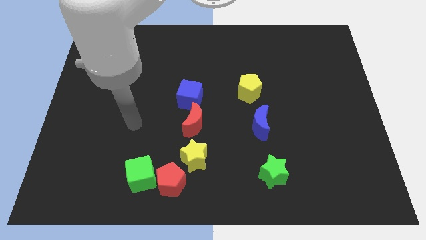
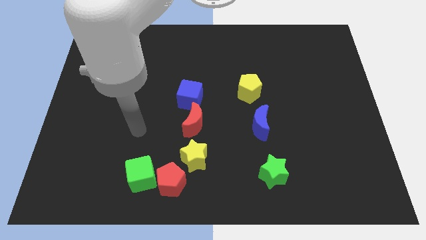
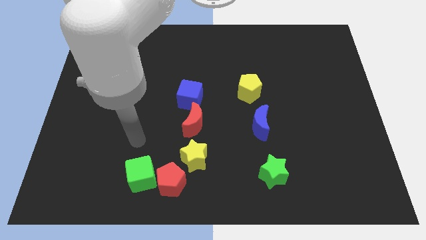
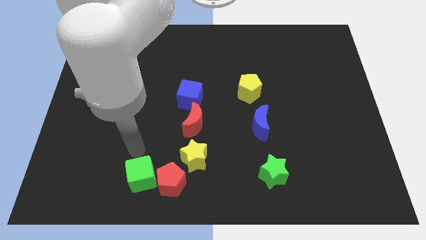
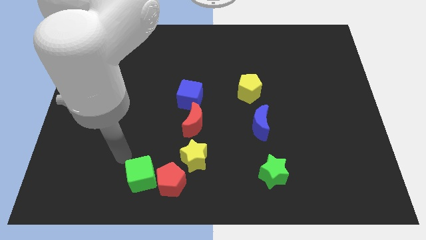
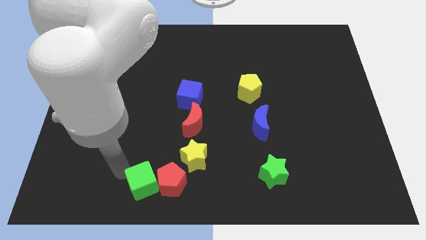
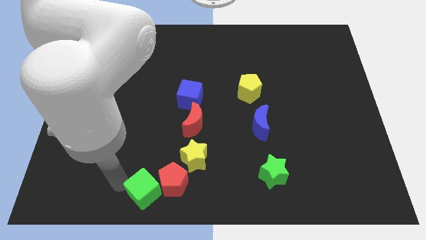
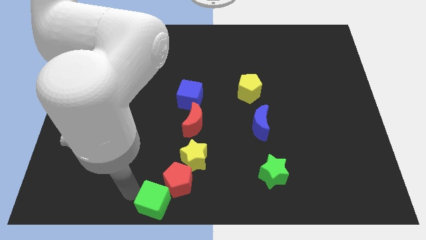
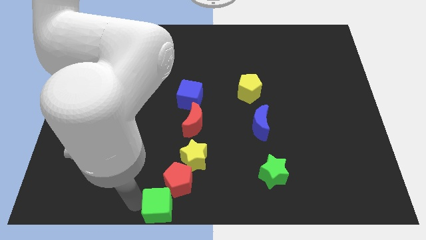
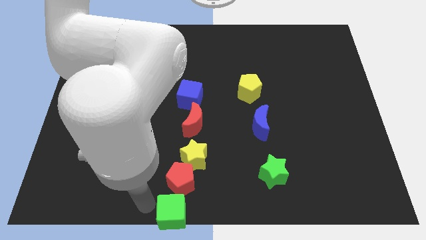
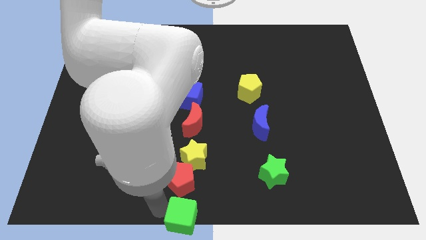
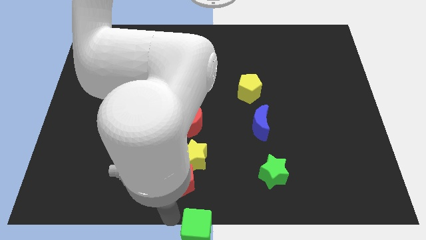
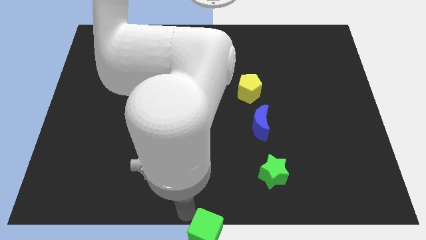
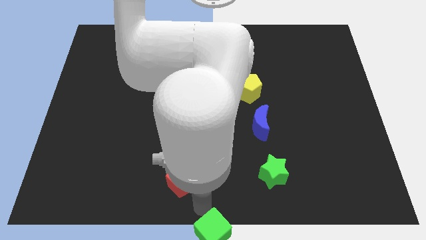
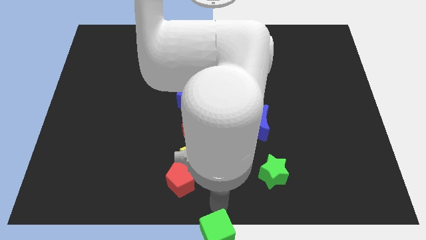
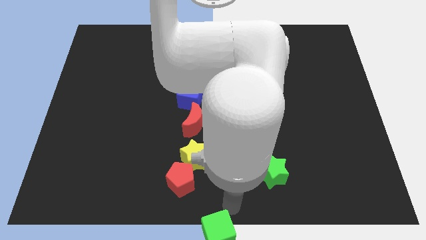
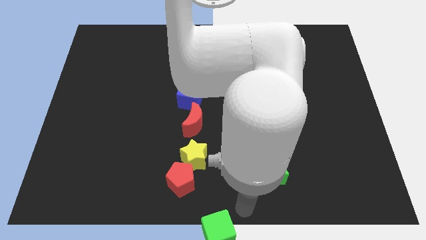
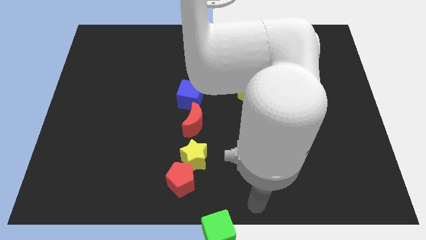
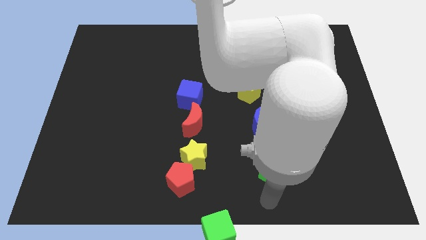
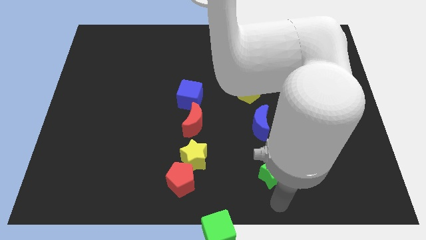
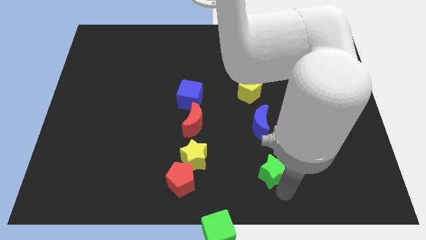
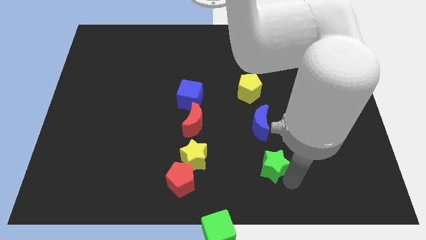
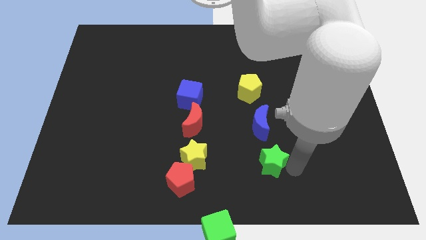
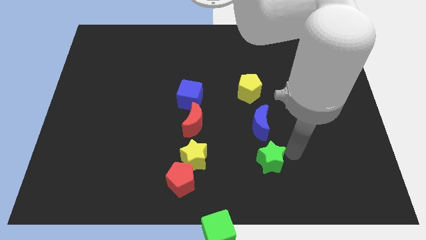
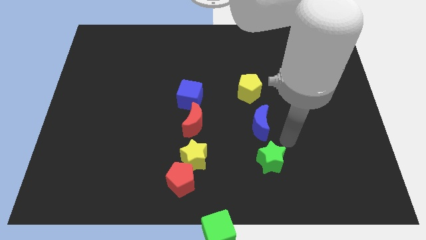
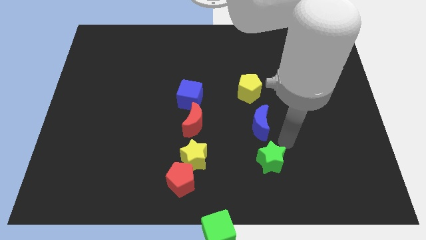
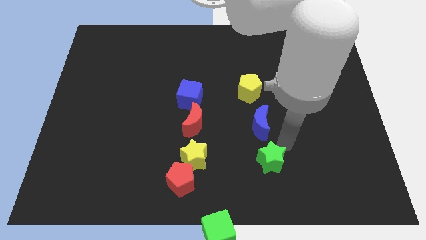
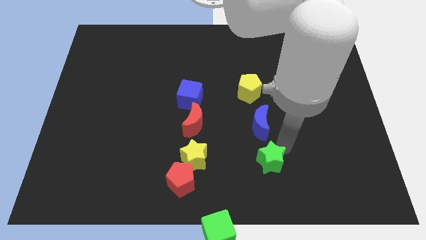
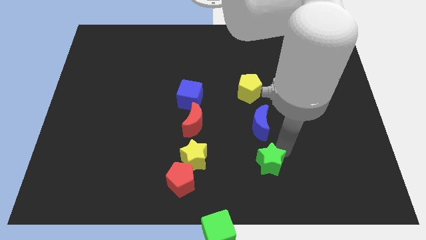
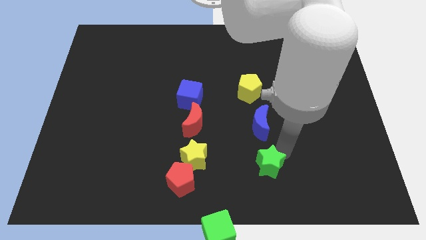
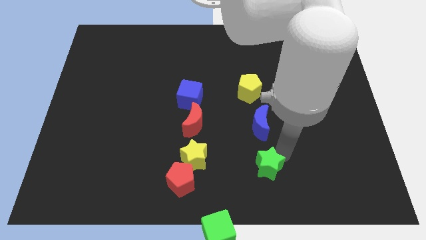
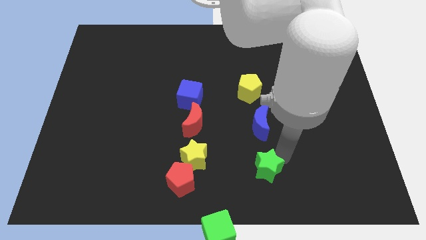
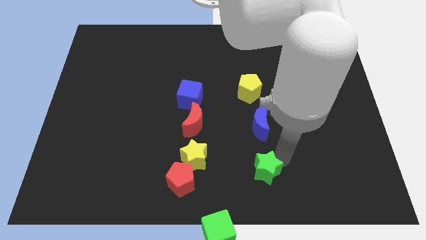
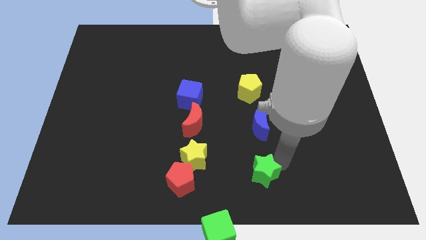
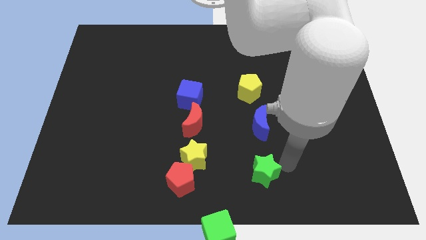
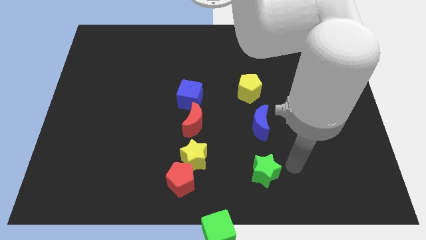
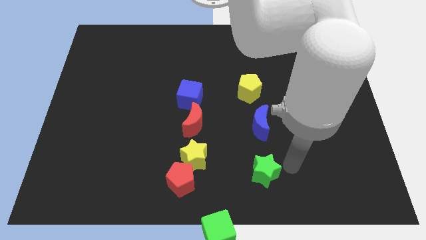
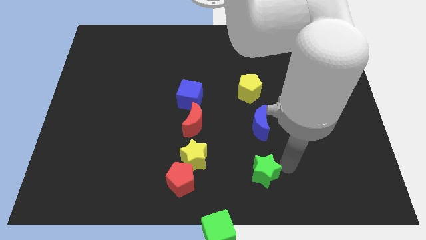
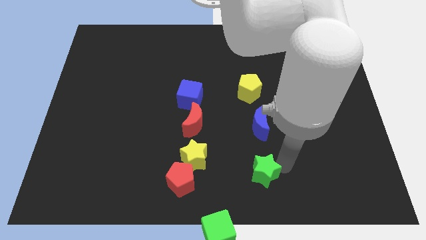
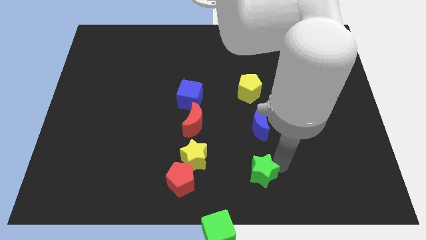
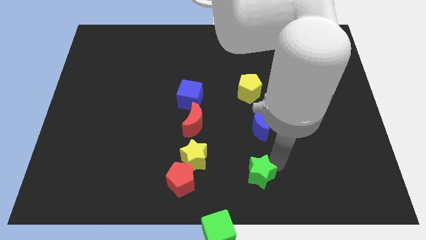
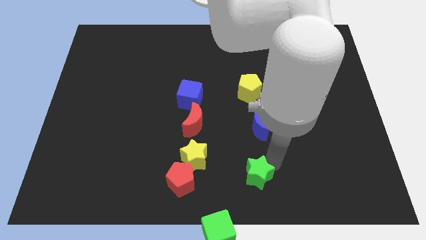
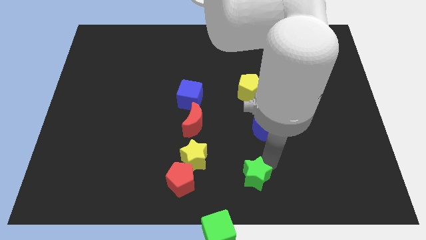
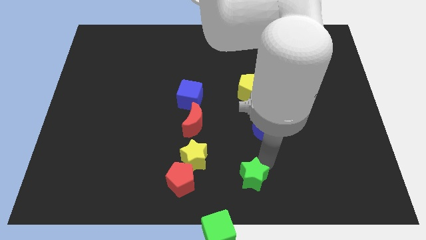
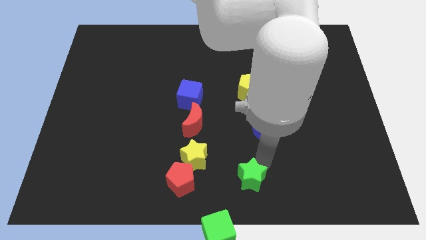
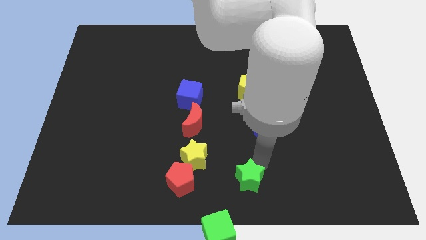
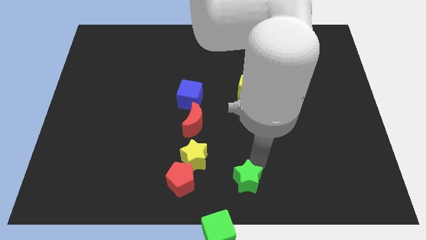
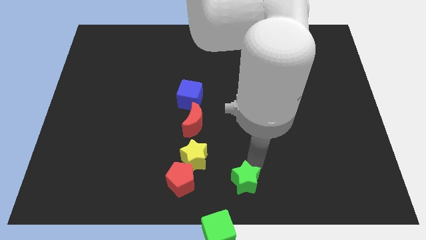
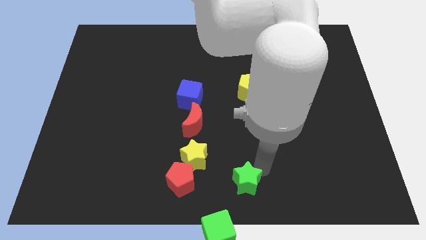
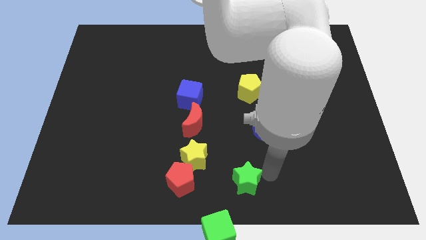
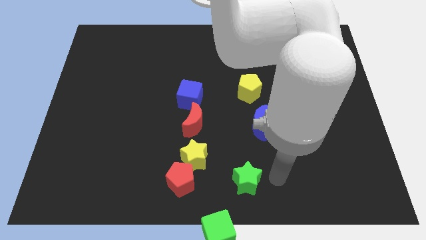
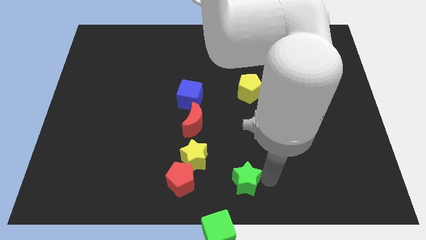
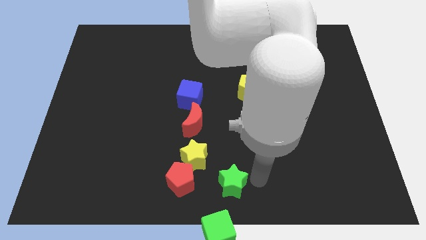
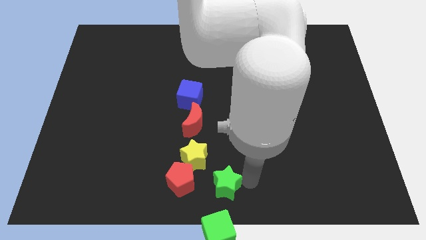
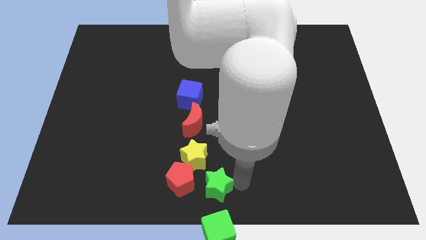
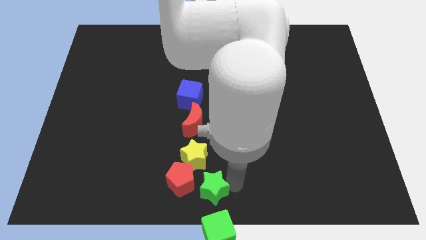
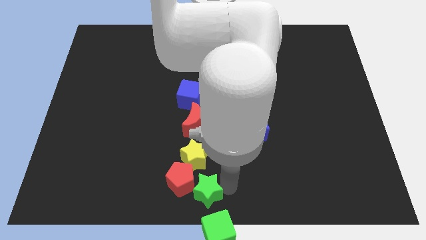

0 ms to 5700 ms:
put the green star close to the red pentagon

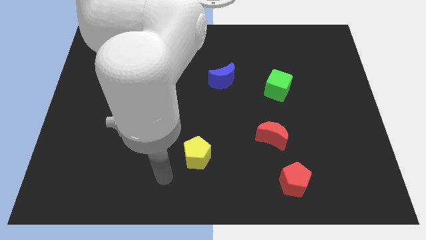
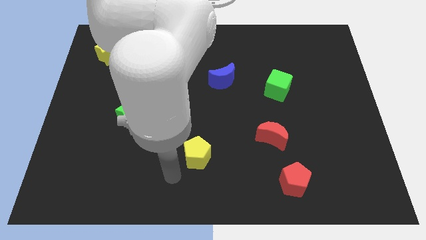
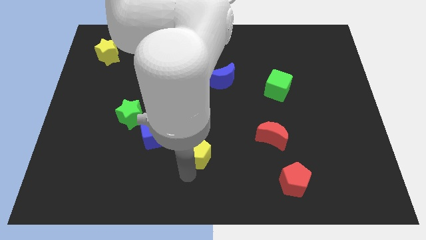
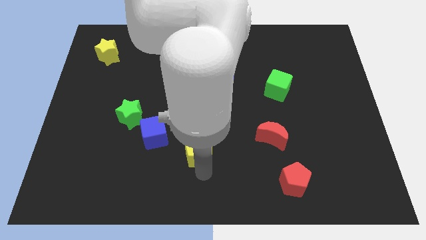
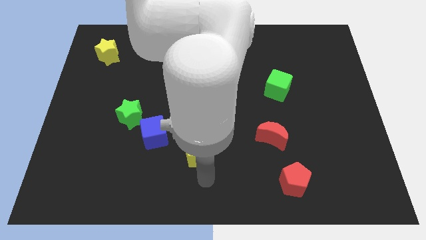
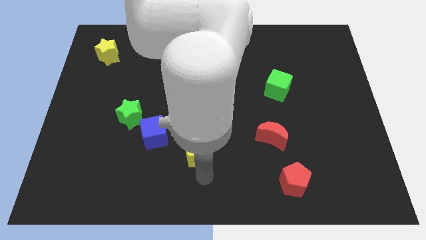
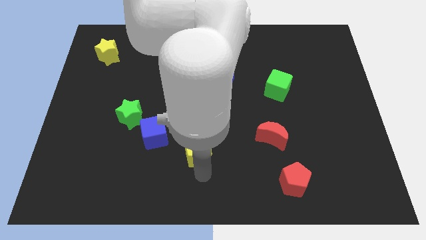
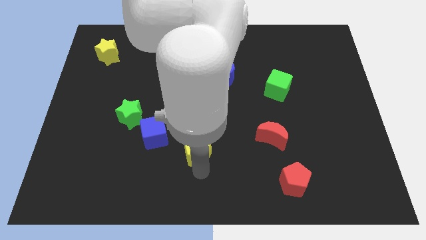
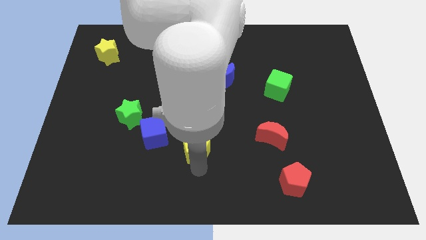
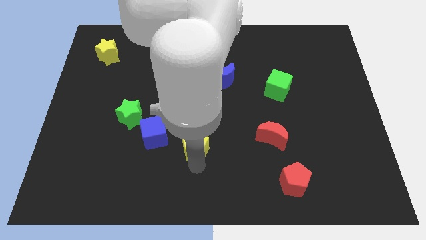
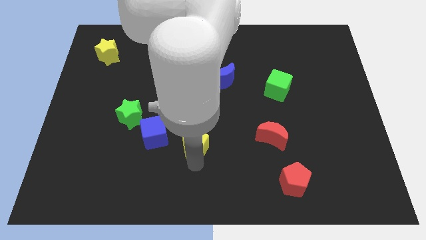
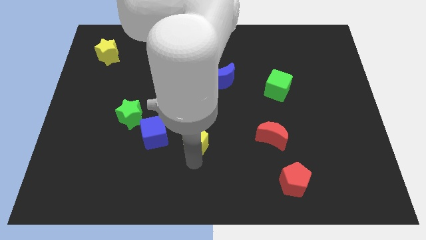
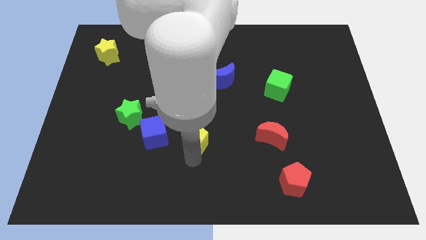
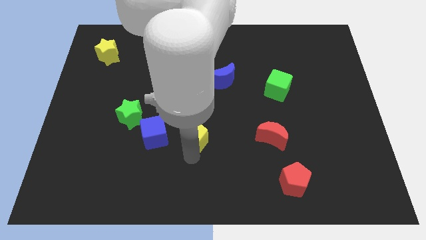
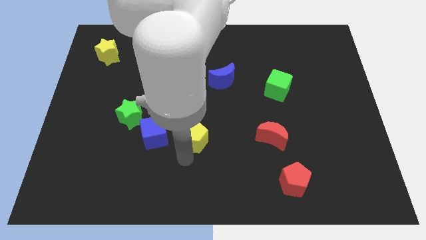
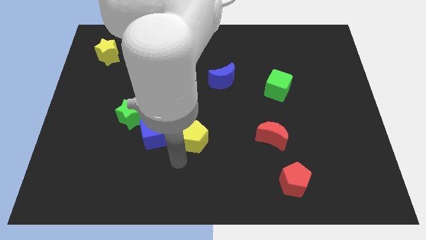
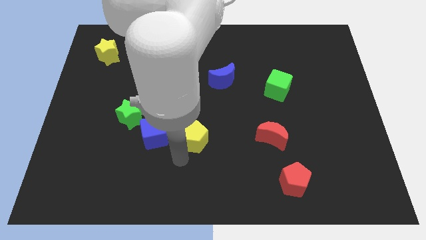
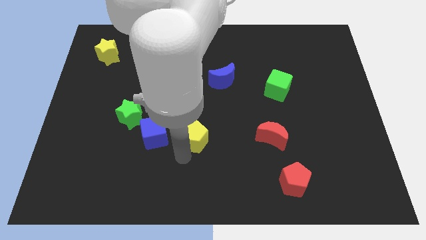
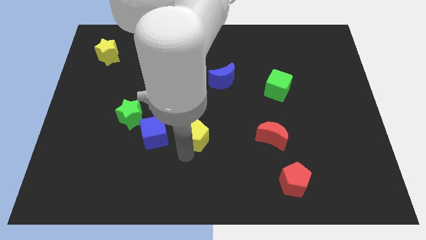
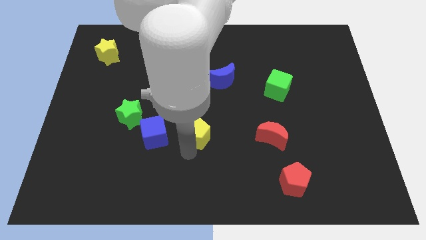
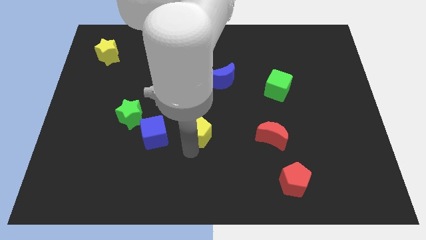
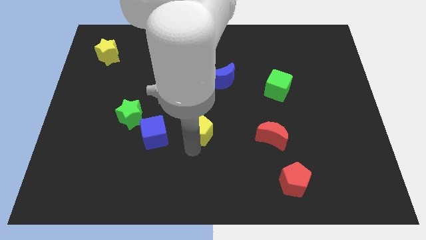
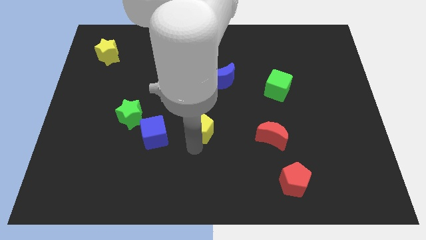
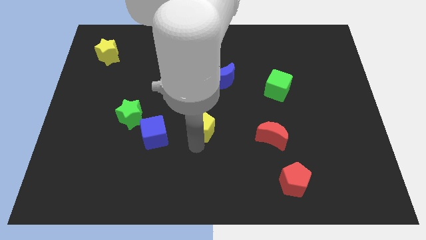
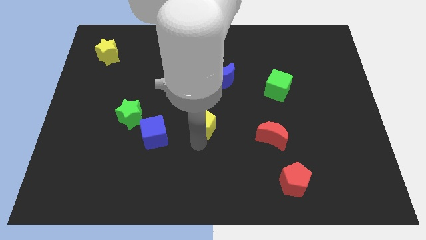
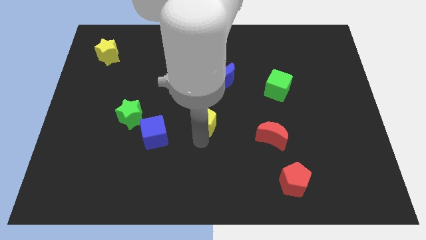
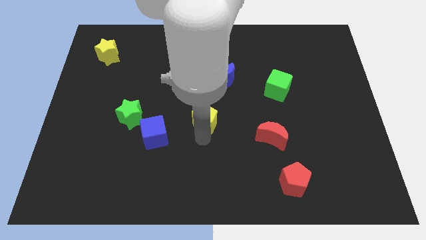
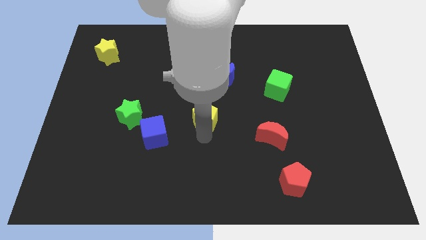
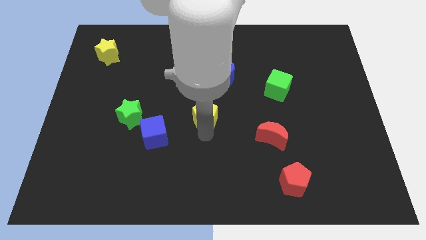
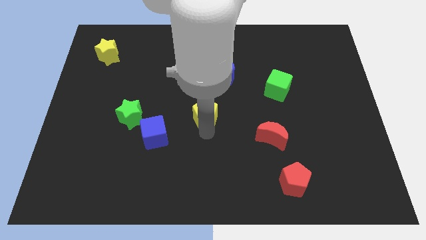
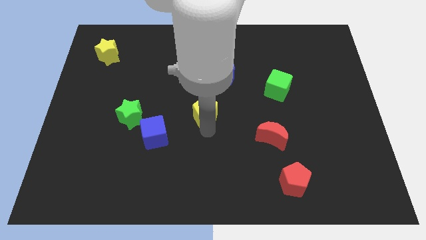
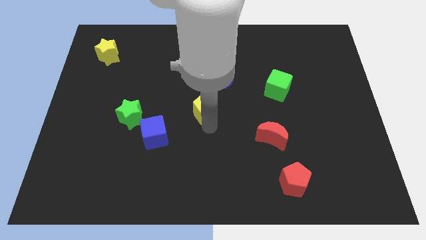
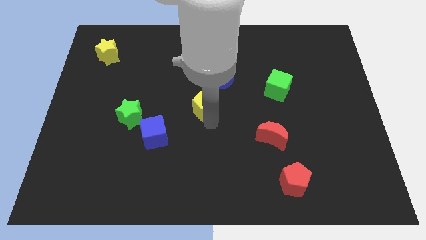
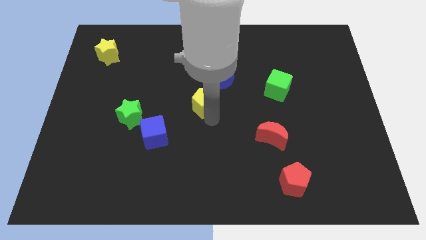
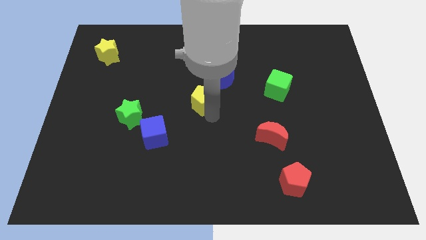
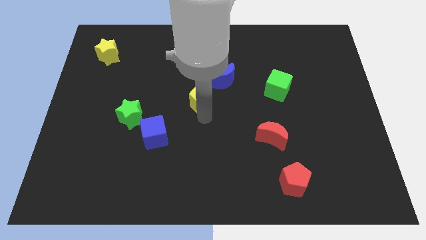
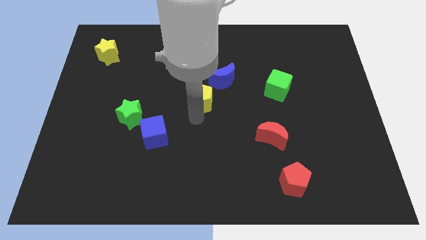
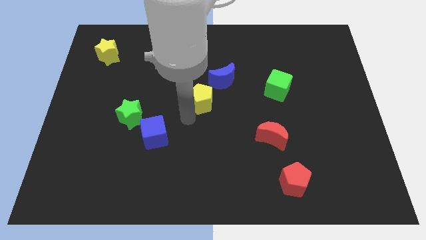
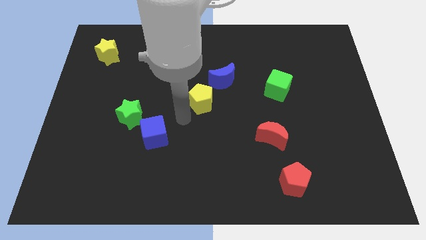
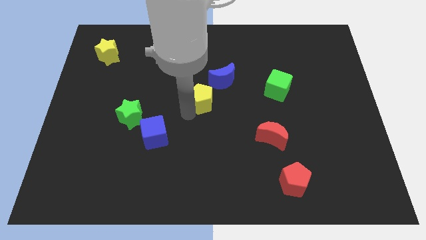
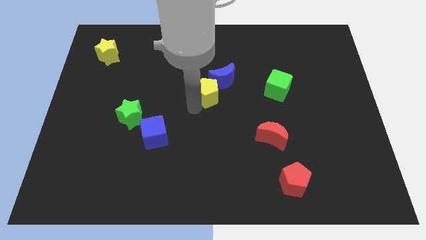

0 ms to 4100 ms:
slide the yellow pentagon close to the blue moon
